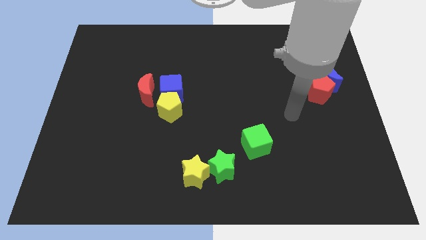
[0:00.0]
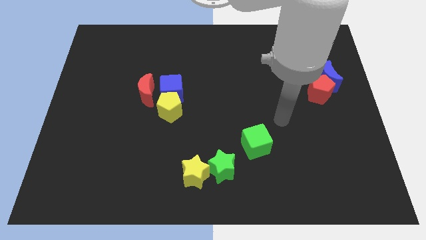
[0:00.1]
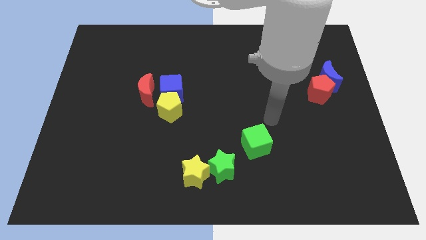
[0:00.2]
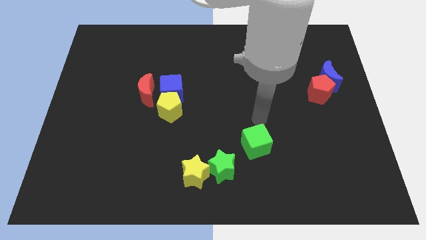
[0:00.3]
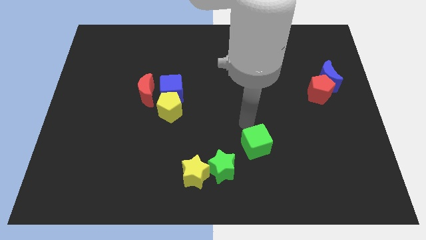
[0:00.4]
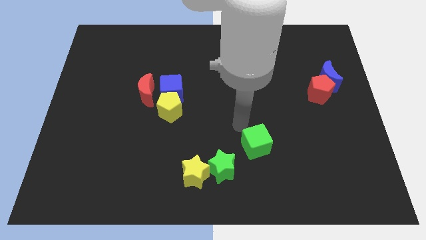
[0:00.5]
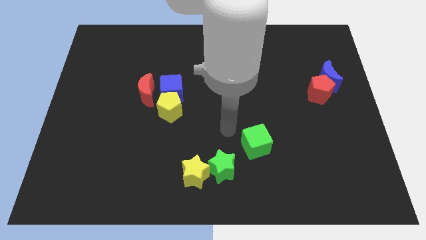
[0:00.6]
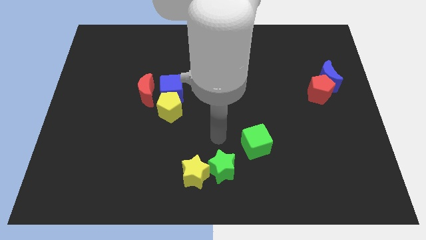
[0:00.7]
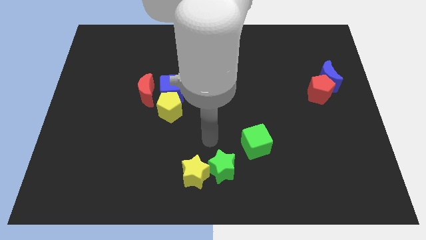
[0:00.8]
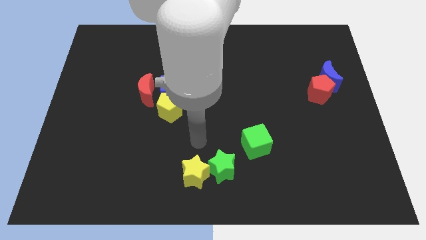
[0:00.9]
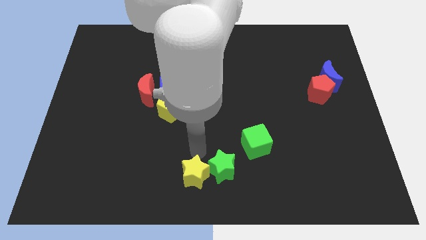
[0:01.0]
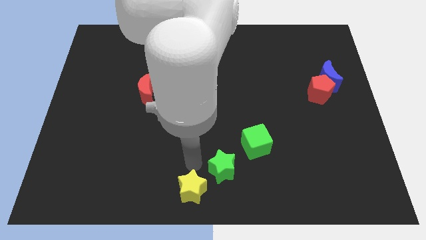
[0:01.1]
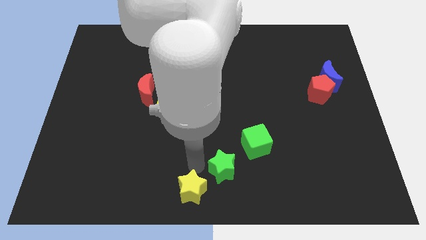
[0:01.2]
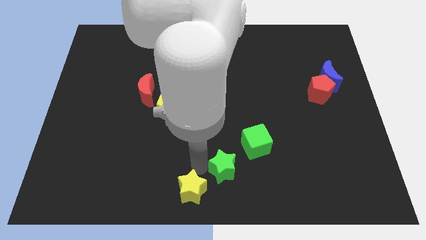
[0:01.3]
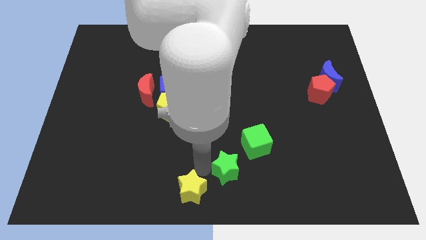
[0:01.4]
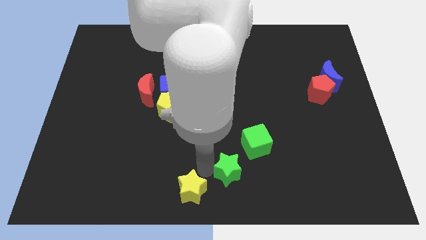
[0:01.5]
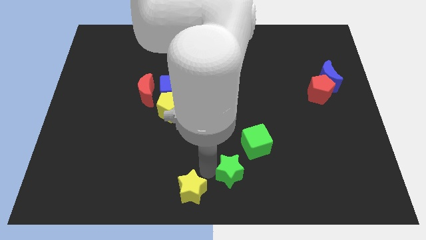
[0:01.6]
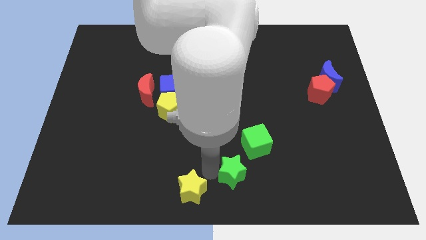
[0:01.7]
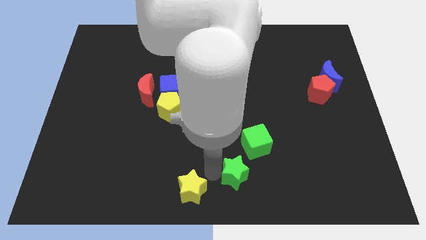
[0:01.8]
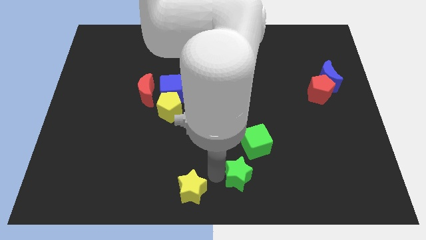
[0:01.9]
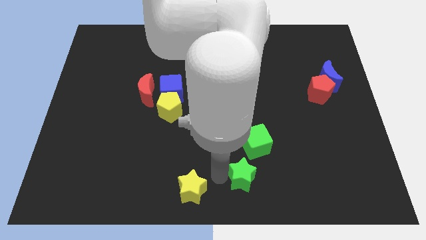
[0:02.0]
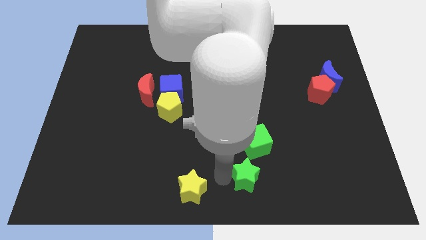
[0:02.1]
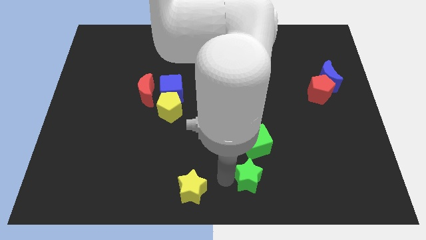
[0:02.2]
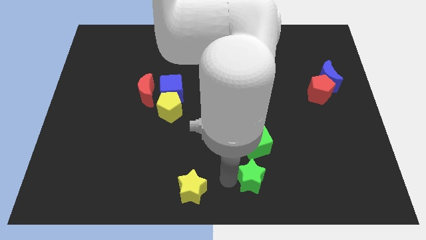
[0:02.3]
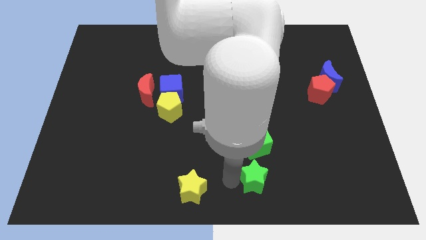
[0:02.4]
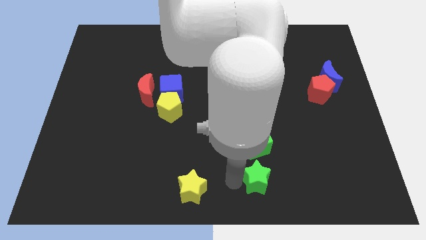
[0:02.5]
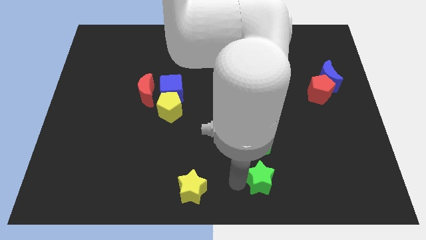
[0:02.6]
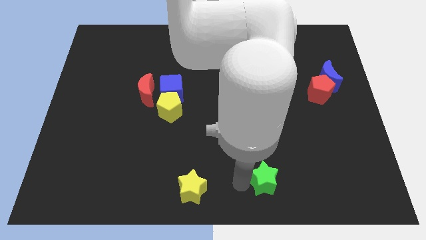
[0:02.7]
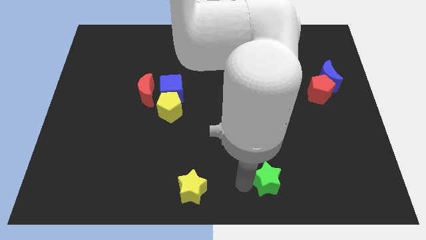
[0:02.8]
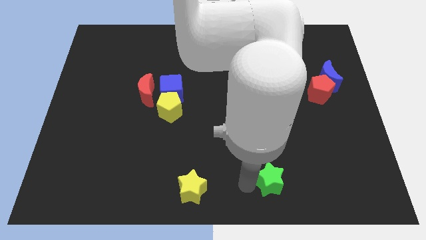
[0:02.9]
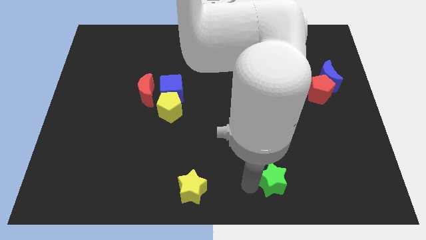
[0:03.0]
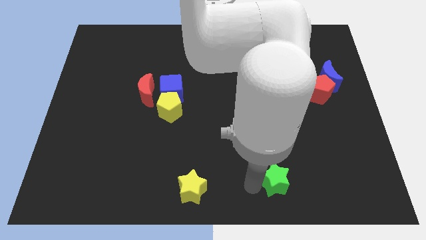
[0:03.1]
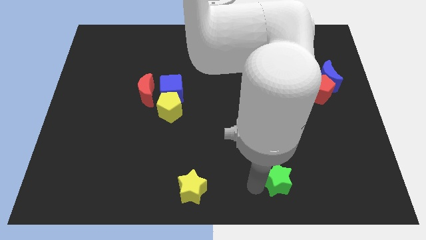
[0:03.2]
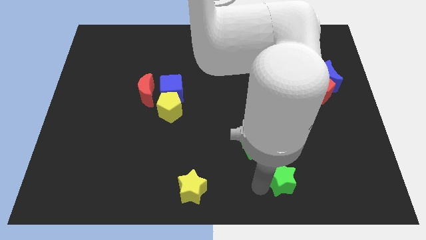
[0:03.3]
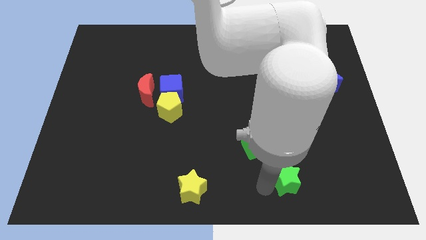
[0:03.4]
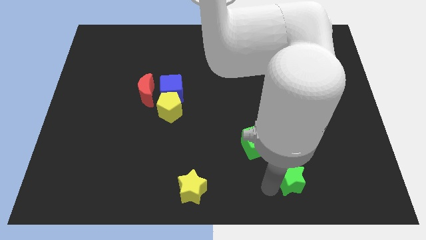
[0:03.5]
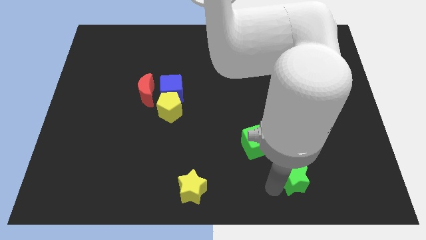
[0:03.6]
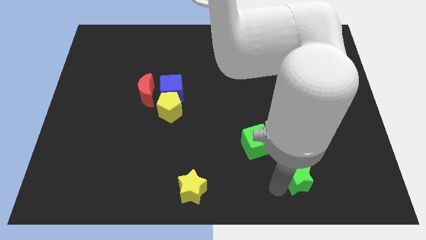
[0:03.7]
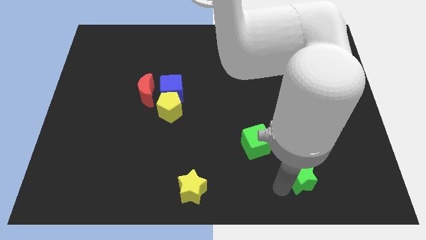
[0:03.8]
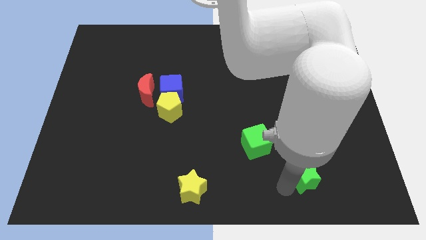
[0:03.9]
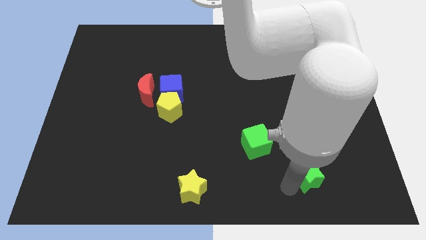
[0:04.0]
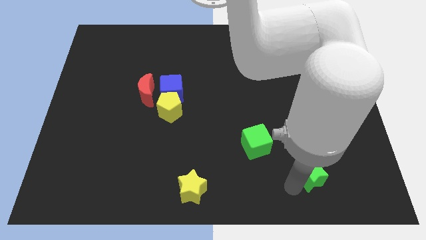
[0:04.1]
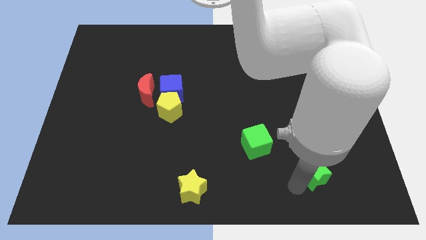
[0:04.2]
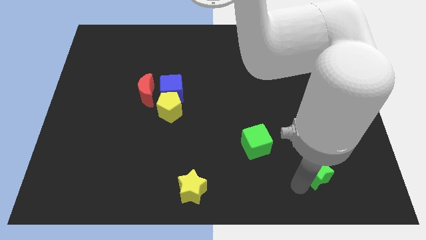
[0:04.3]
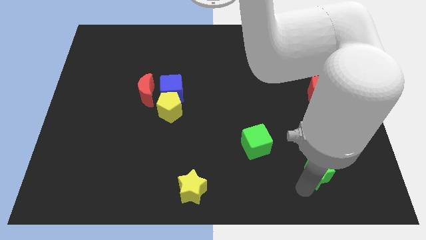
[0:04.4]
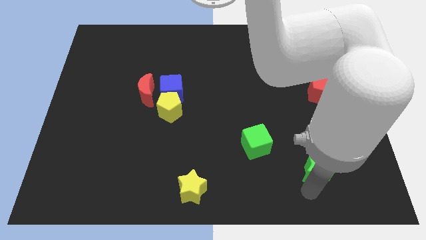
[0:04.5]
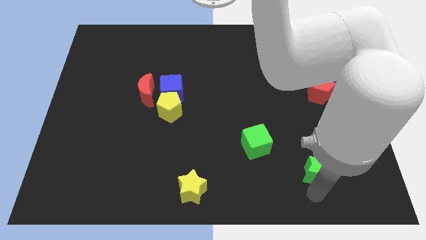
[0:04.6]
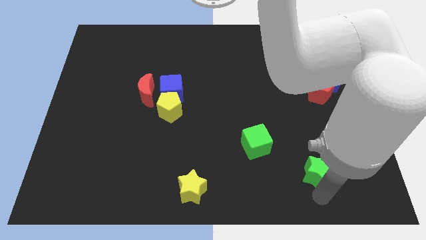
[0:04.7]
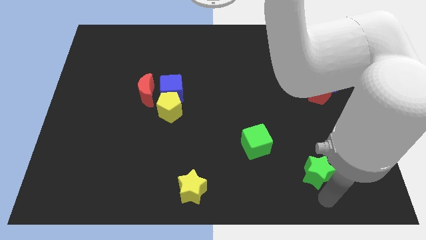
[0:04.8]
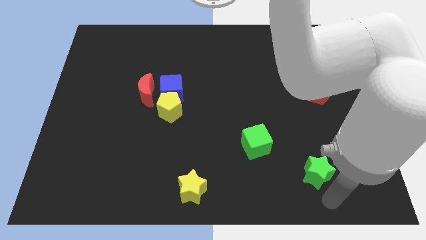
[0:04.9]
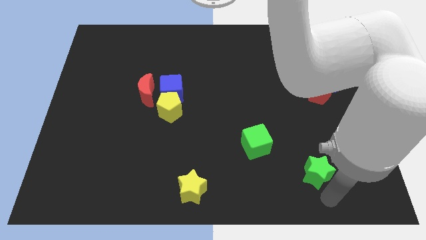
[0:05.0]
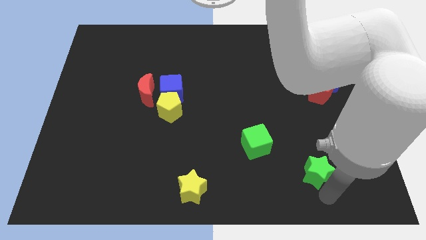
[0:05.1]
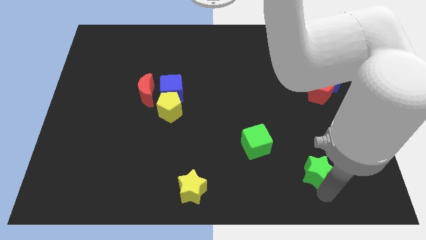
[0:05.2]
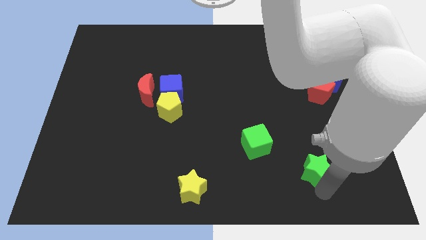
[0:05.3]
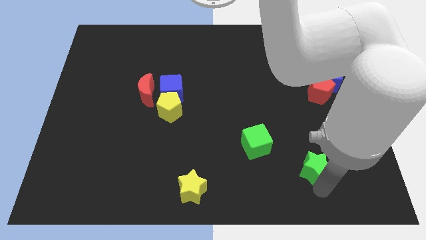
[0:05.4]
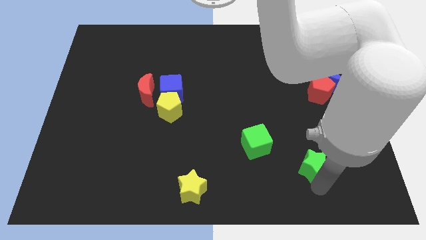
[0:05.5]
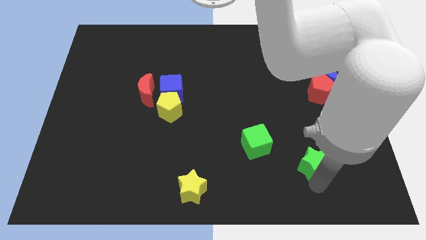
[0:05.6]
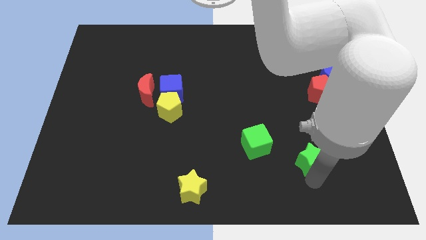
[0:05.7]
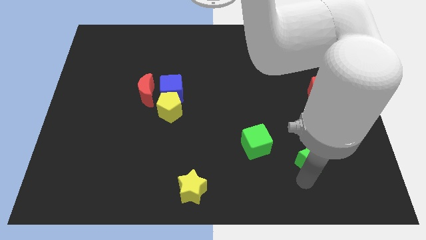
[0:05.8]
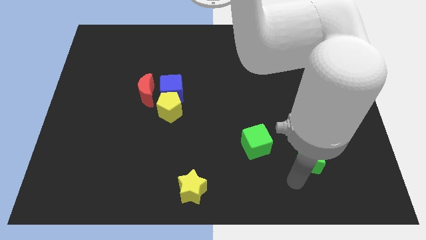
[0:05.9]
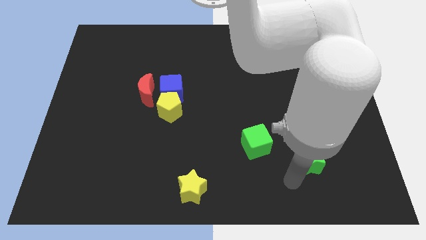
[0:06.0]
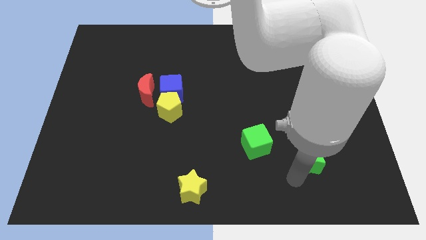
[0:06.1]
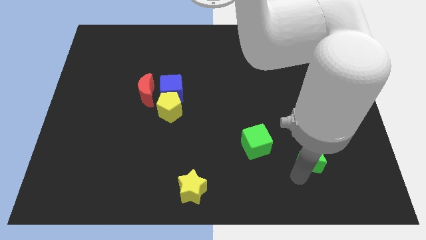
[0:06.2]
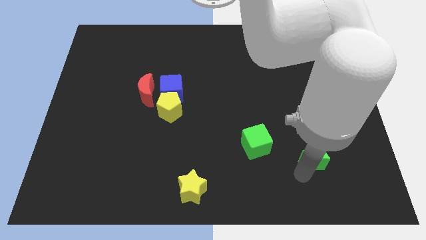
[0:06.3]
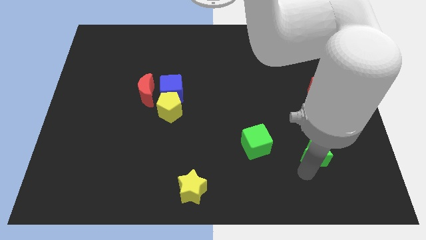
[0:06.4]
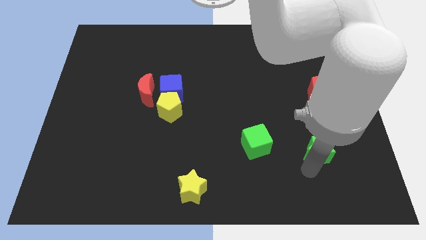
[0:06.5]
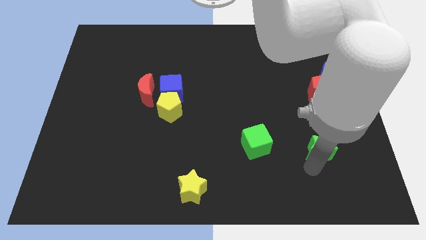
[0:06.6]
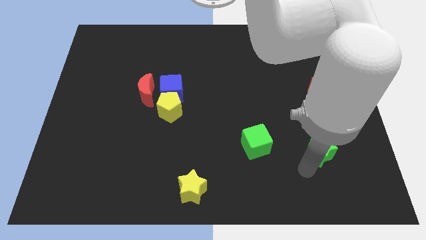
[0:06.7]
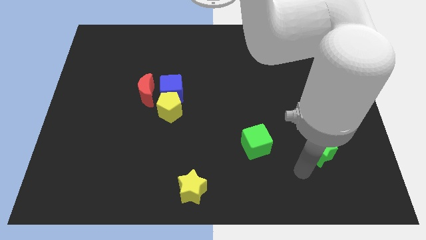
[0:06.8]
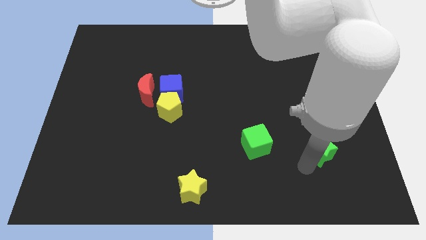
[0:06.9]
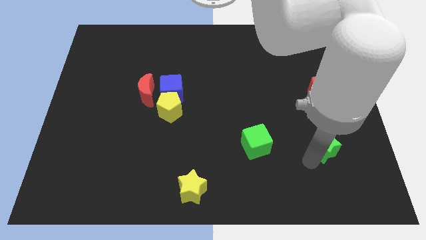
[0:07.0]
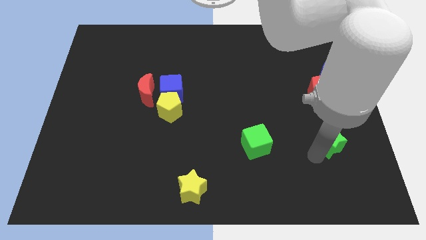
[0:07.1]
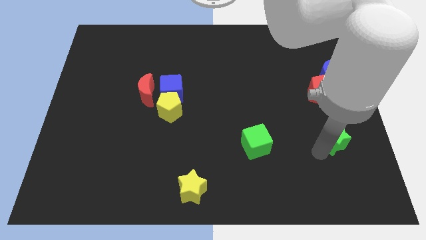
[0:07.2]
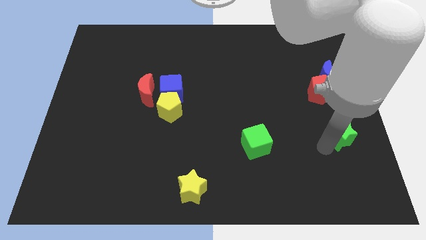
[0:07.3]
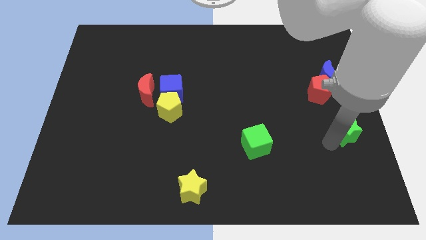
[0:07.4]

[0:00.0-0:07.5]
move the green star to the right side
